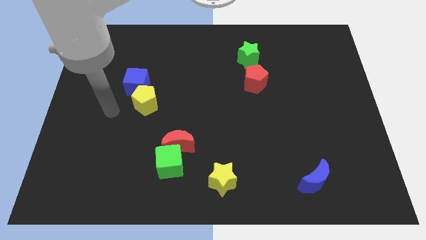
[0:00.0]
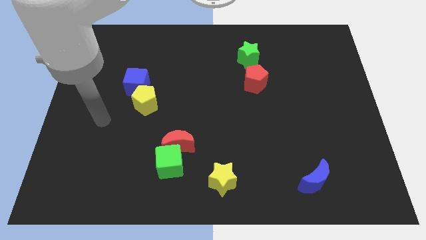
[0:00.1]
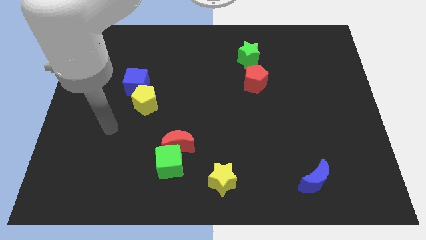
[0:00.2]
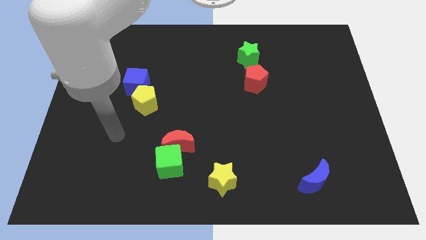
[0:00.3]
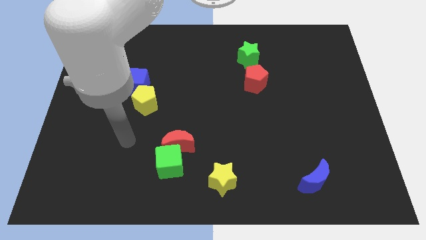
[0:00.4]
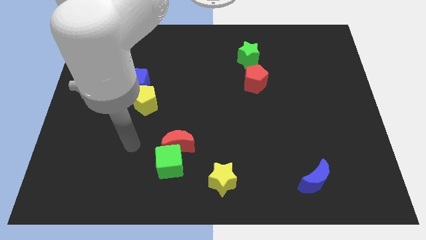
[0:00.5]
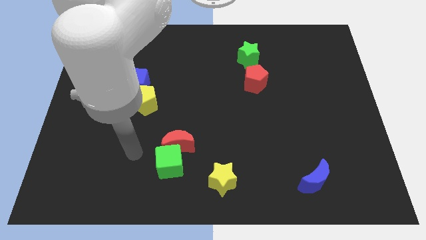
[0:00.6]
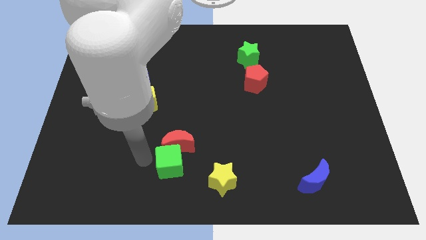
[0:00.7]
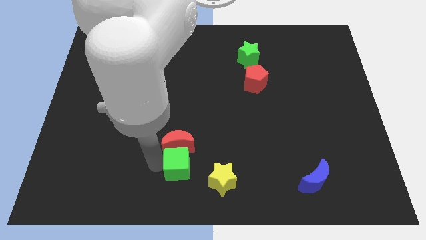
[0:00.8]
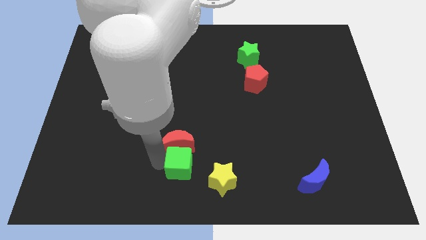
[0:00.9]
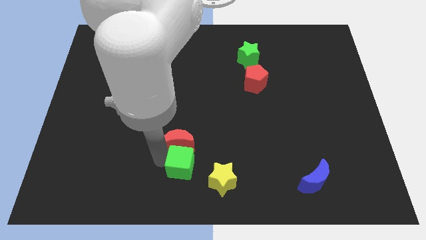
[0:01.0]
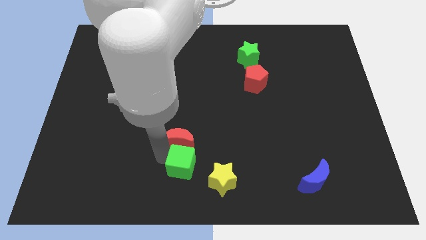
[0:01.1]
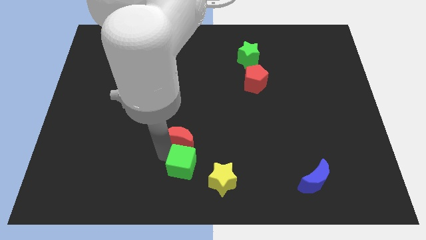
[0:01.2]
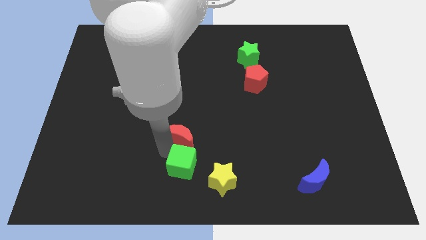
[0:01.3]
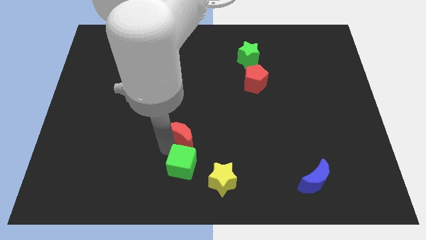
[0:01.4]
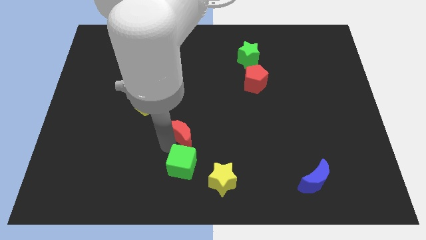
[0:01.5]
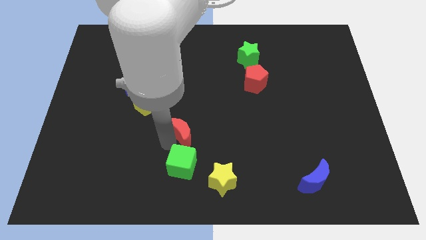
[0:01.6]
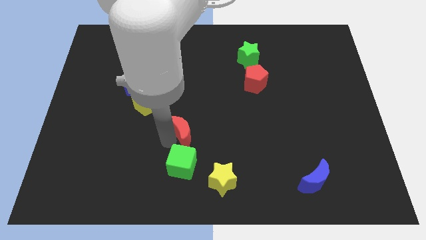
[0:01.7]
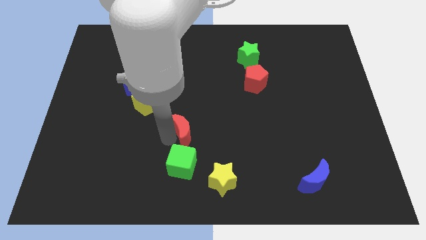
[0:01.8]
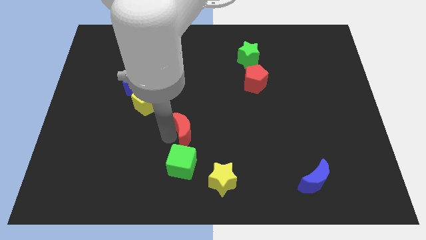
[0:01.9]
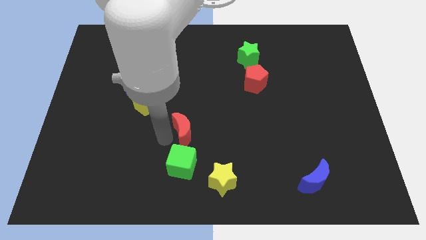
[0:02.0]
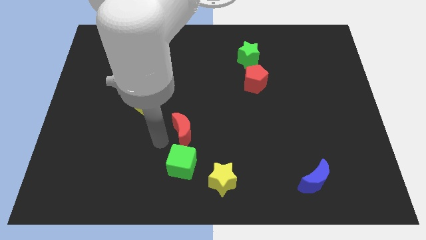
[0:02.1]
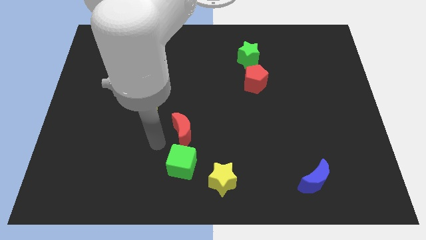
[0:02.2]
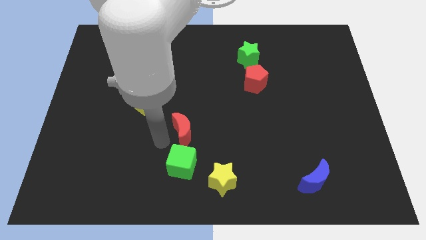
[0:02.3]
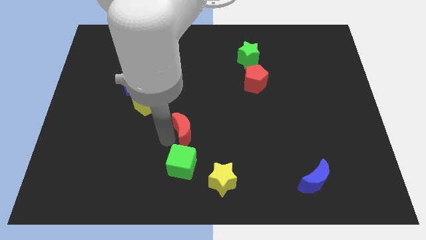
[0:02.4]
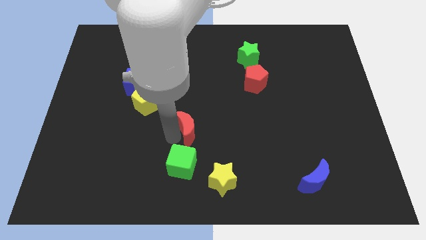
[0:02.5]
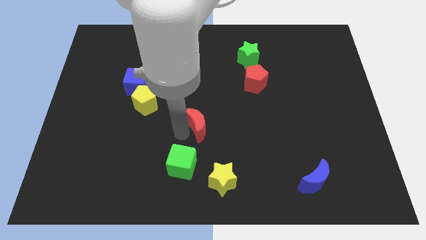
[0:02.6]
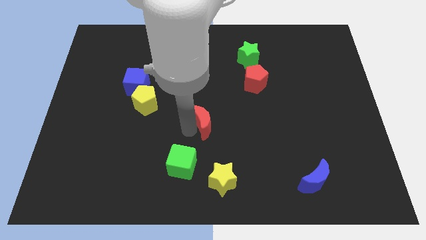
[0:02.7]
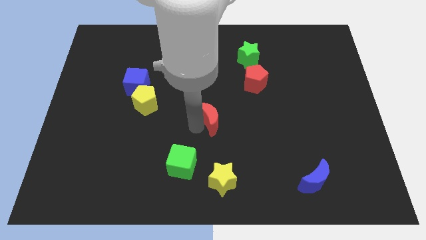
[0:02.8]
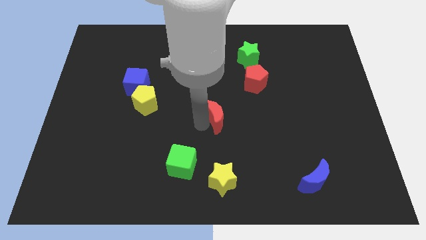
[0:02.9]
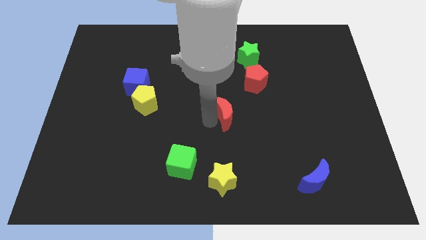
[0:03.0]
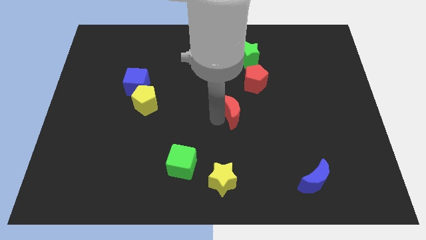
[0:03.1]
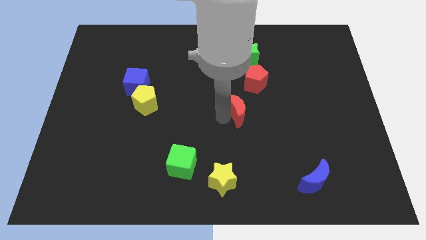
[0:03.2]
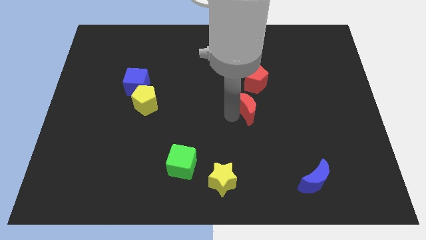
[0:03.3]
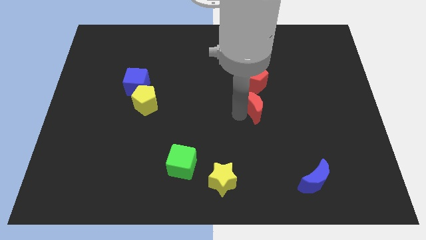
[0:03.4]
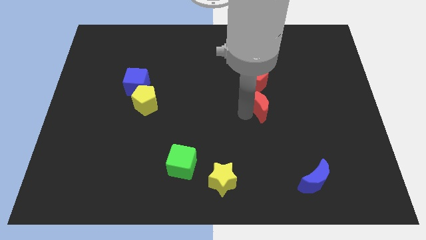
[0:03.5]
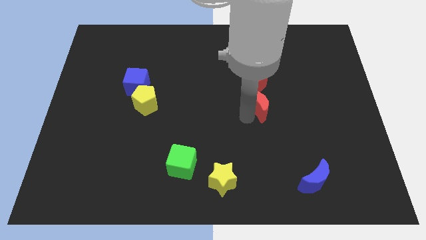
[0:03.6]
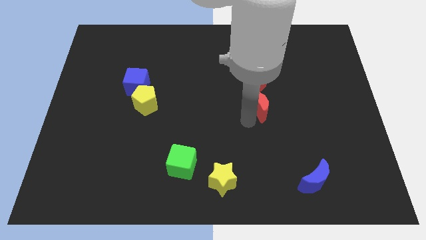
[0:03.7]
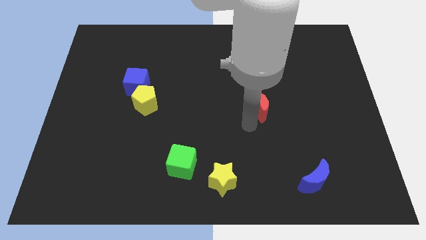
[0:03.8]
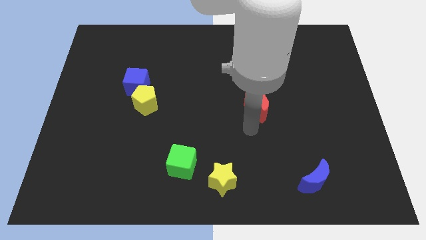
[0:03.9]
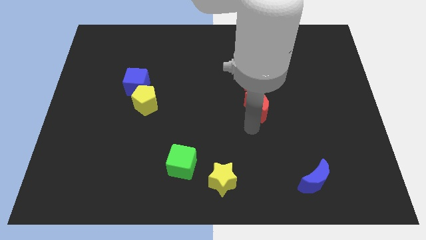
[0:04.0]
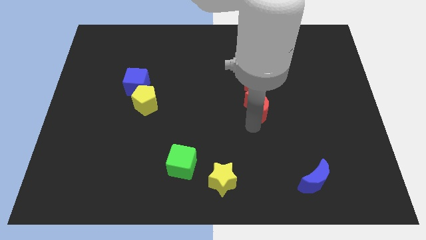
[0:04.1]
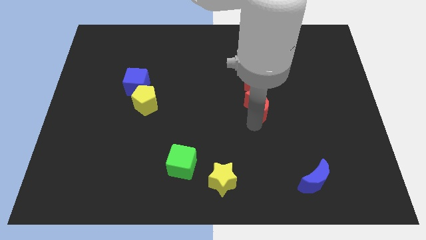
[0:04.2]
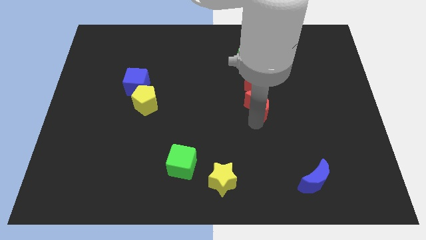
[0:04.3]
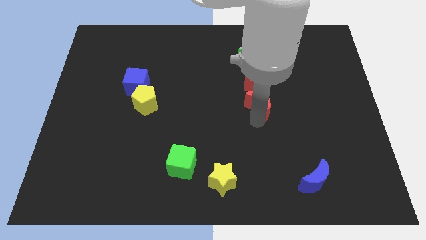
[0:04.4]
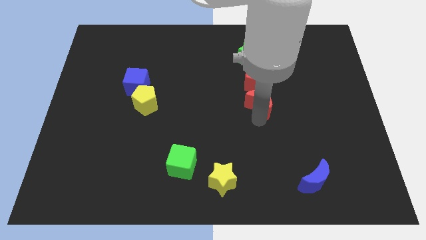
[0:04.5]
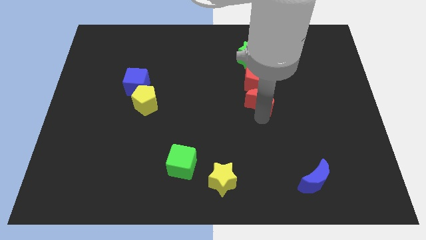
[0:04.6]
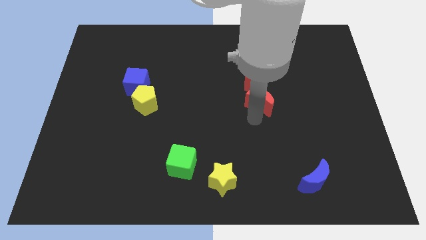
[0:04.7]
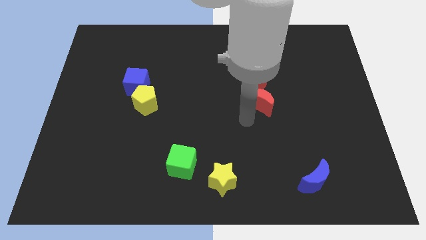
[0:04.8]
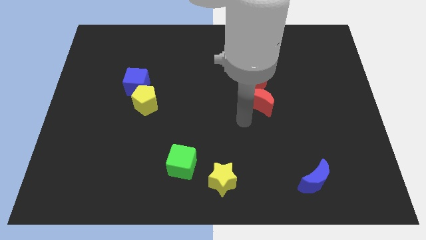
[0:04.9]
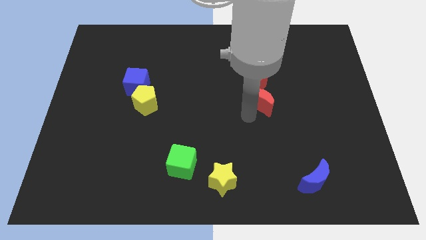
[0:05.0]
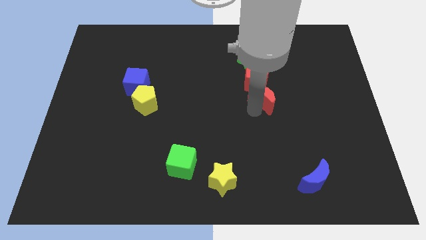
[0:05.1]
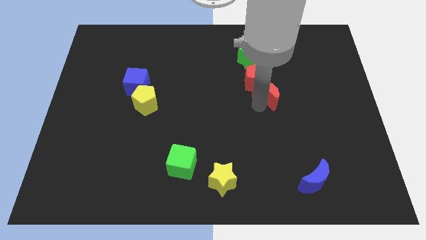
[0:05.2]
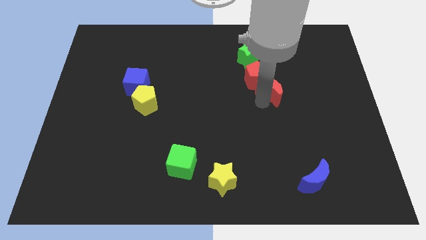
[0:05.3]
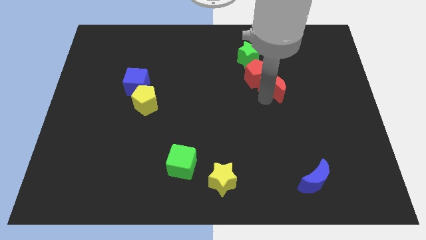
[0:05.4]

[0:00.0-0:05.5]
slide the red moon to the right of the red pentagon

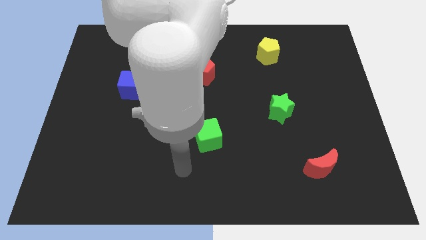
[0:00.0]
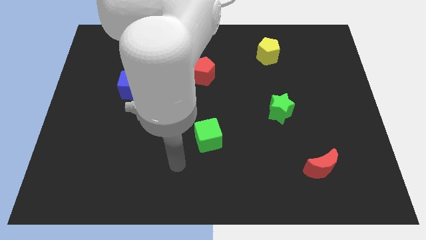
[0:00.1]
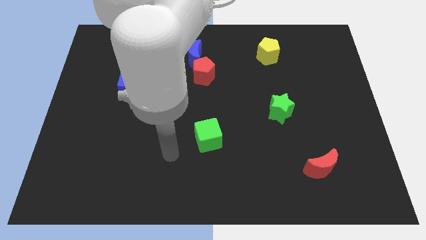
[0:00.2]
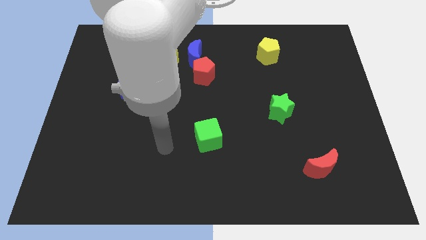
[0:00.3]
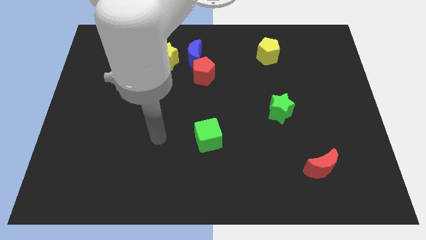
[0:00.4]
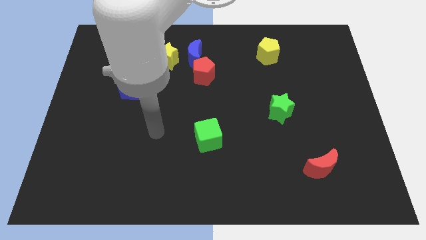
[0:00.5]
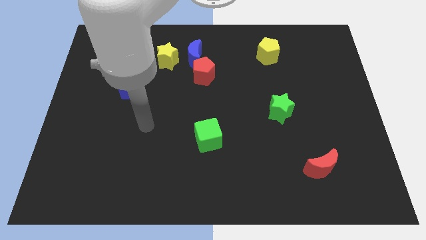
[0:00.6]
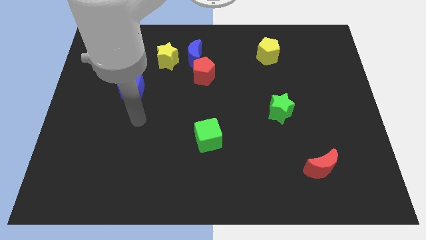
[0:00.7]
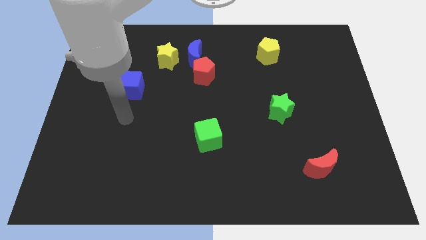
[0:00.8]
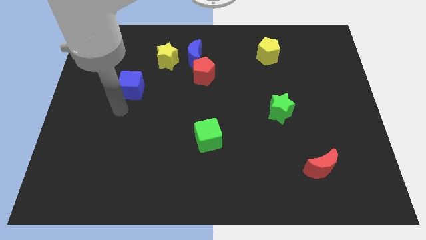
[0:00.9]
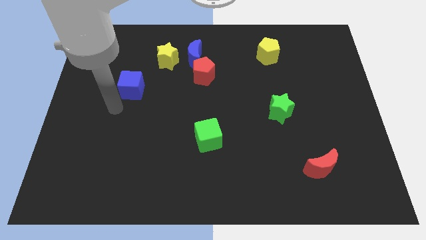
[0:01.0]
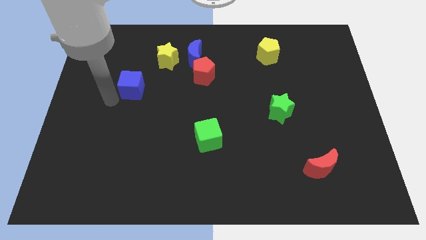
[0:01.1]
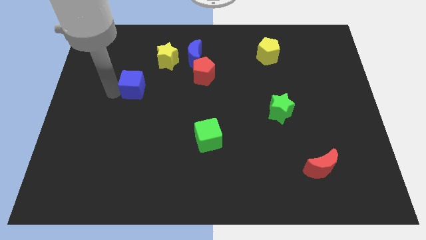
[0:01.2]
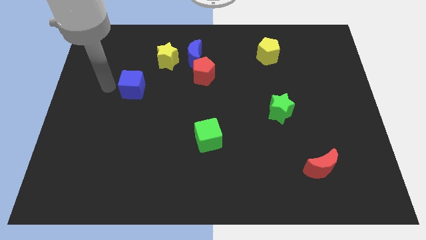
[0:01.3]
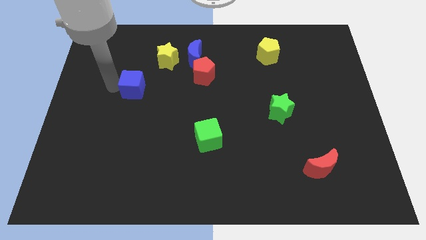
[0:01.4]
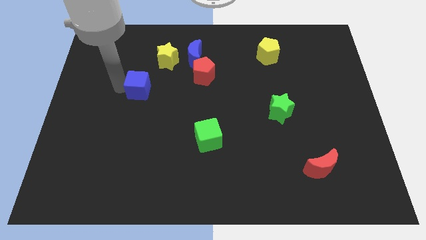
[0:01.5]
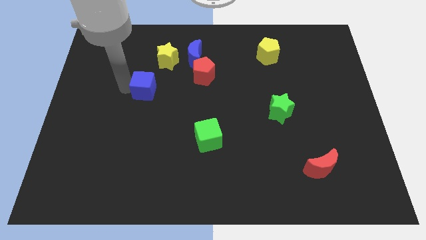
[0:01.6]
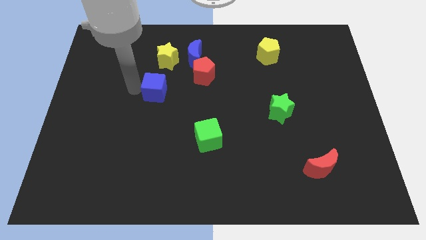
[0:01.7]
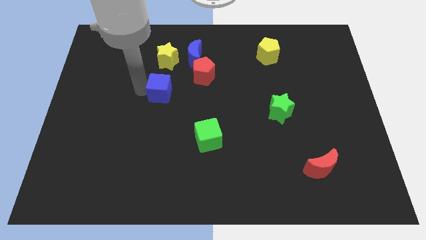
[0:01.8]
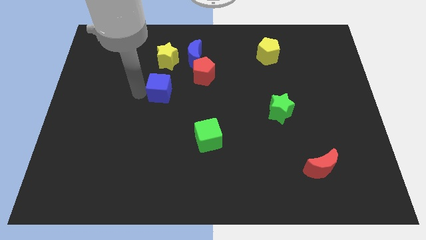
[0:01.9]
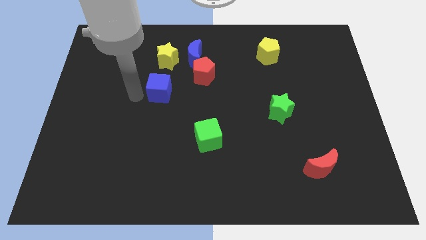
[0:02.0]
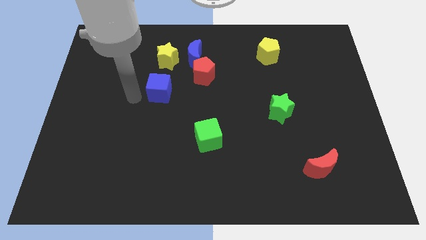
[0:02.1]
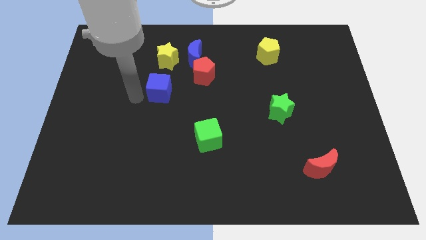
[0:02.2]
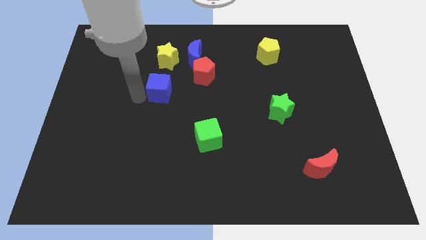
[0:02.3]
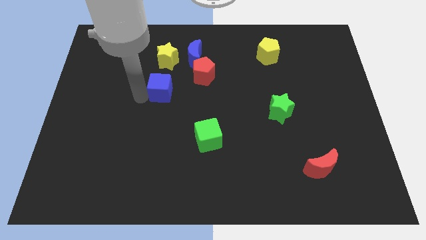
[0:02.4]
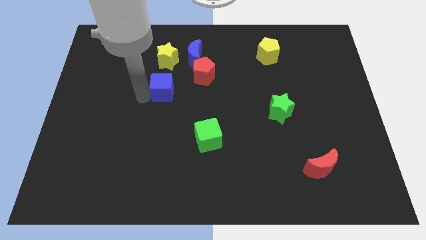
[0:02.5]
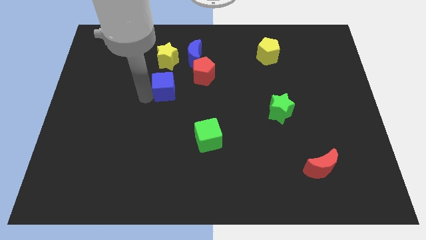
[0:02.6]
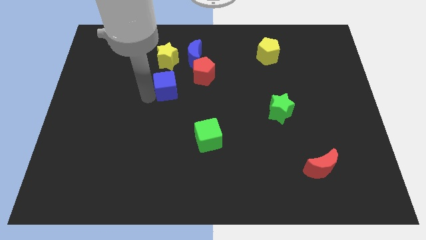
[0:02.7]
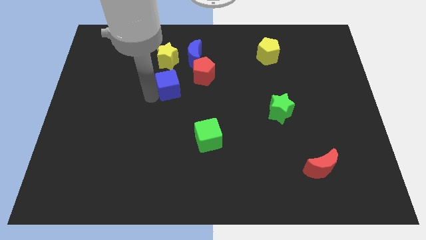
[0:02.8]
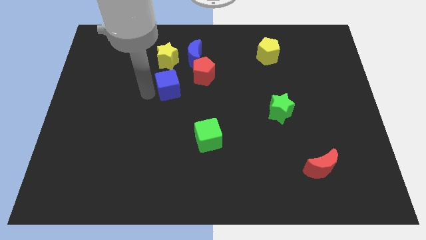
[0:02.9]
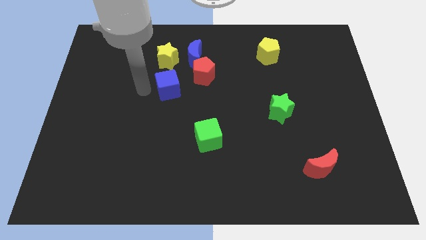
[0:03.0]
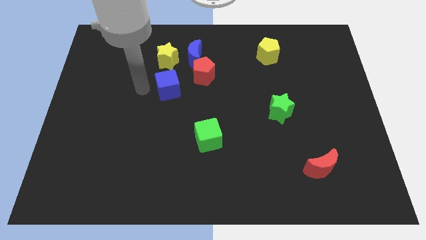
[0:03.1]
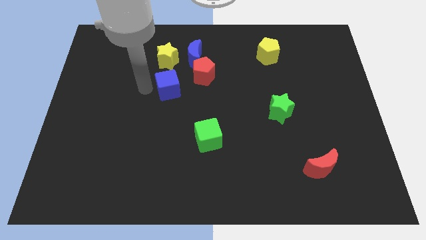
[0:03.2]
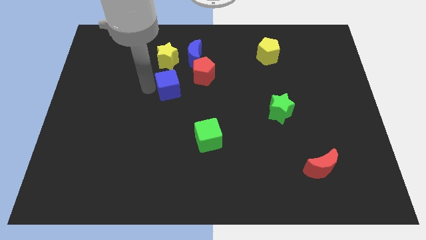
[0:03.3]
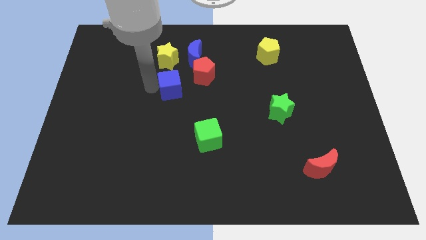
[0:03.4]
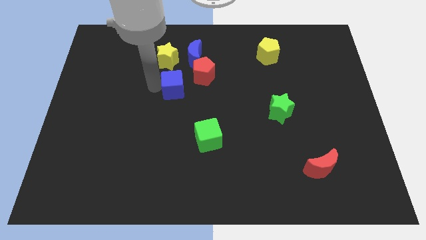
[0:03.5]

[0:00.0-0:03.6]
put the blue cube to the bottom side of the blue moon
